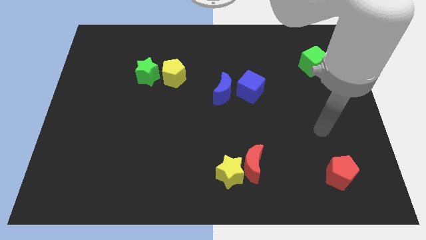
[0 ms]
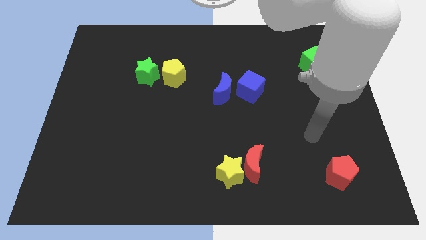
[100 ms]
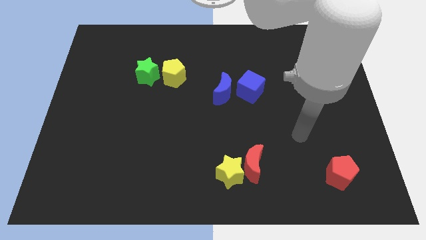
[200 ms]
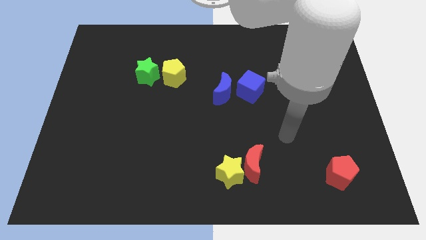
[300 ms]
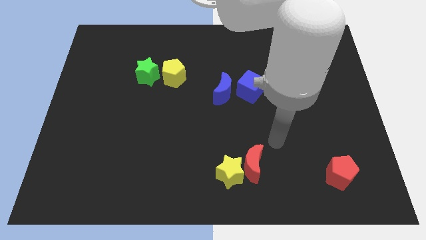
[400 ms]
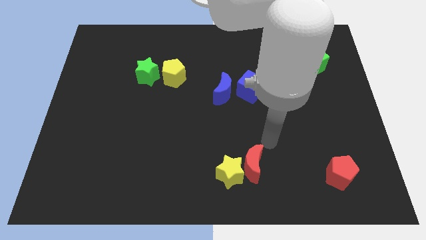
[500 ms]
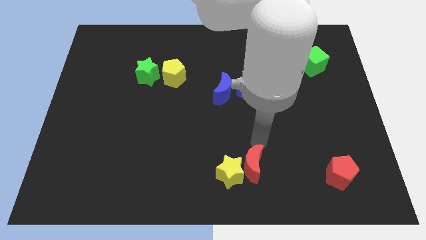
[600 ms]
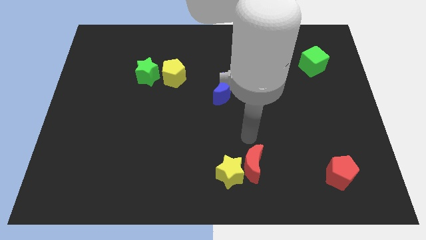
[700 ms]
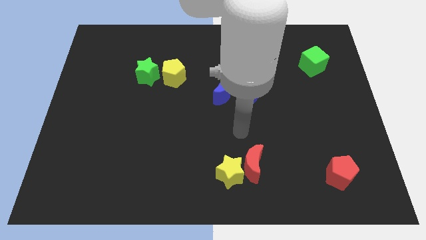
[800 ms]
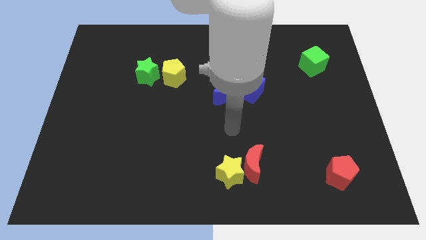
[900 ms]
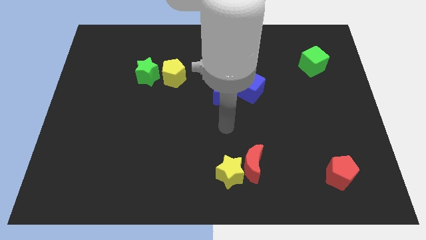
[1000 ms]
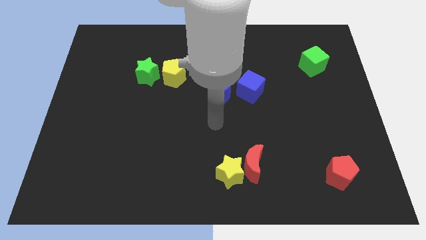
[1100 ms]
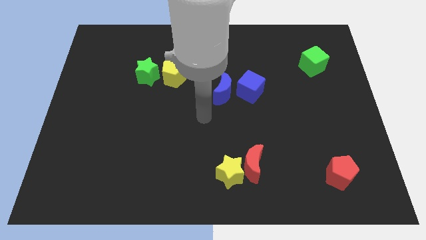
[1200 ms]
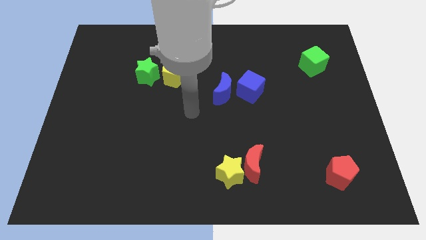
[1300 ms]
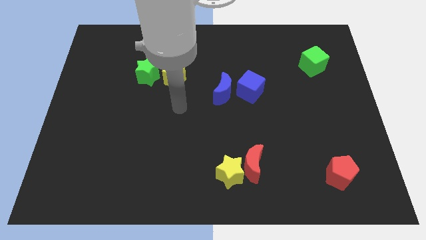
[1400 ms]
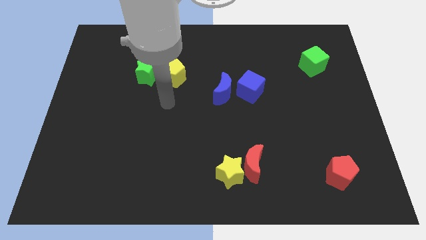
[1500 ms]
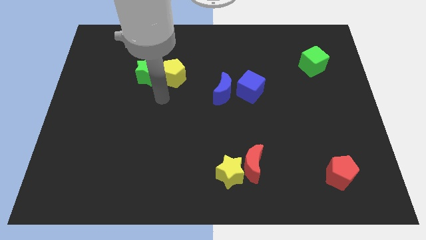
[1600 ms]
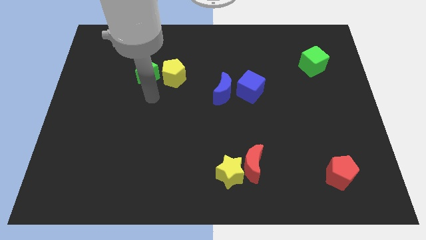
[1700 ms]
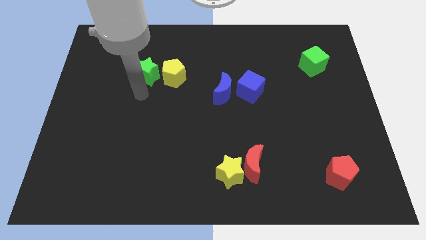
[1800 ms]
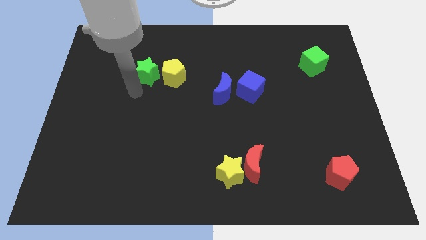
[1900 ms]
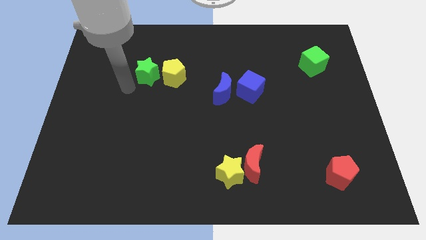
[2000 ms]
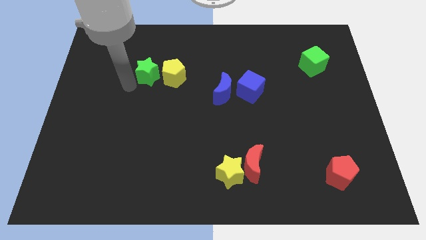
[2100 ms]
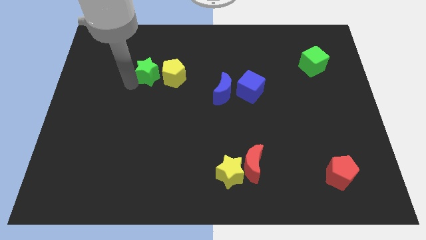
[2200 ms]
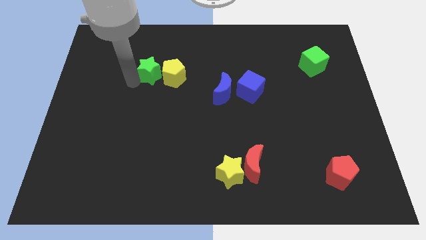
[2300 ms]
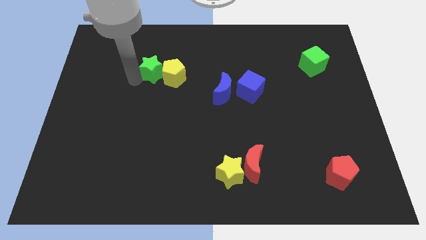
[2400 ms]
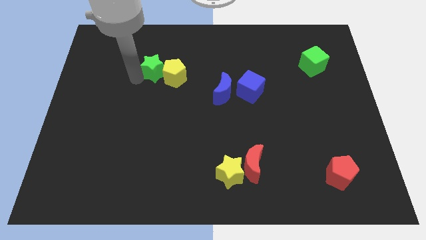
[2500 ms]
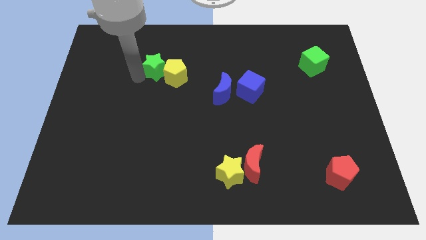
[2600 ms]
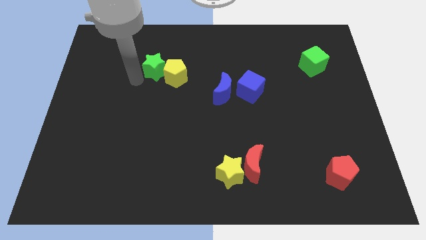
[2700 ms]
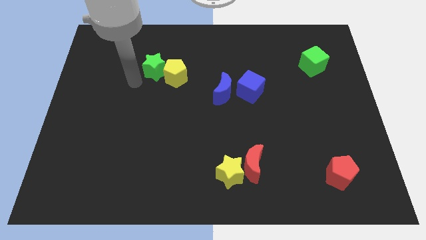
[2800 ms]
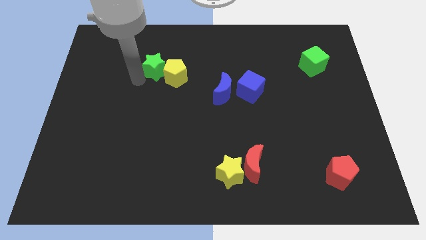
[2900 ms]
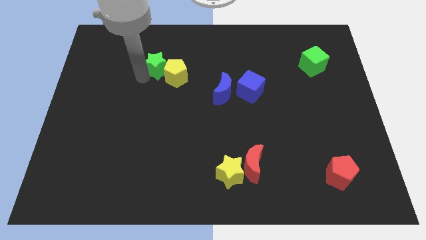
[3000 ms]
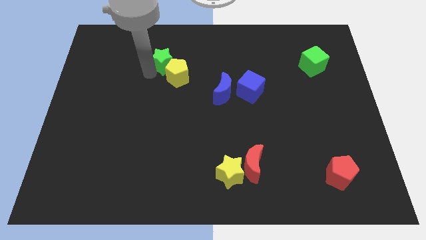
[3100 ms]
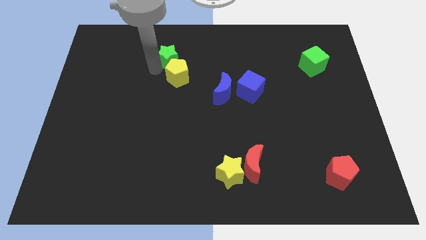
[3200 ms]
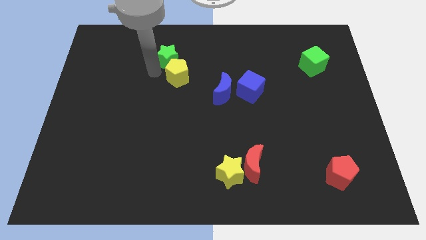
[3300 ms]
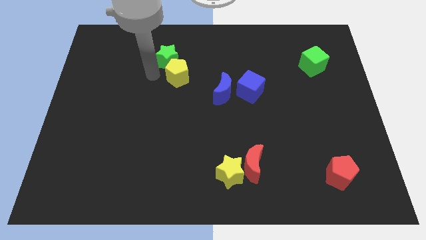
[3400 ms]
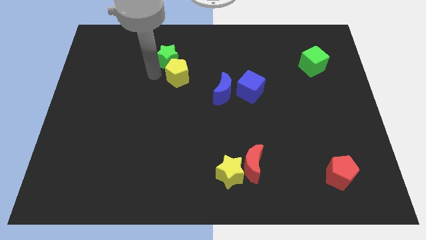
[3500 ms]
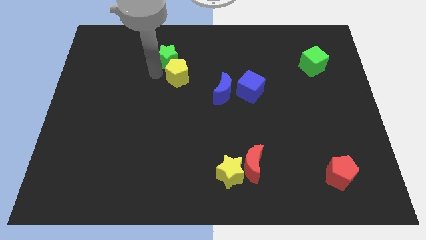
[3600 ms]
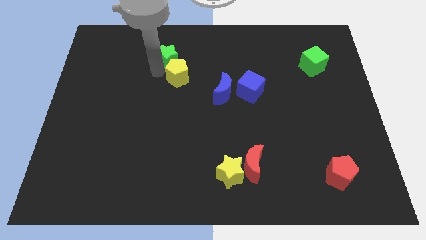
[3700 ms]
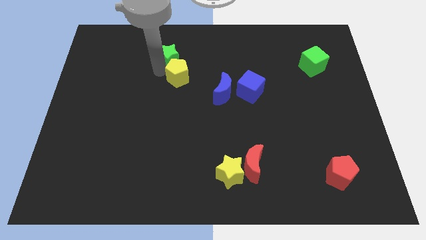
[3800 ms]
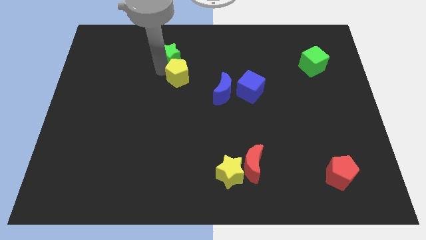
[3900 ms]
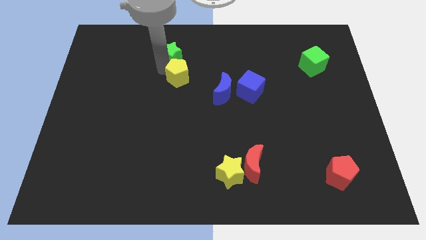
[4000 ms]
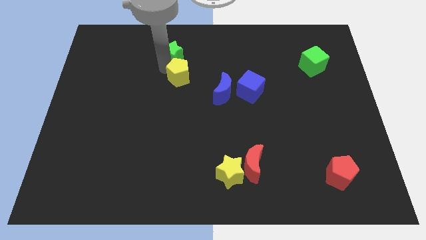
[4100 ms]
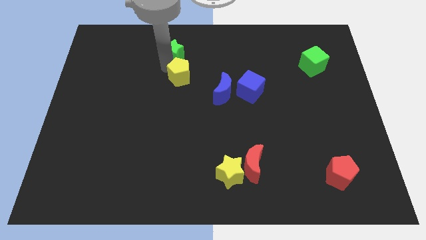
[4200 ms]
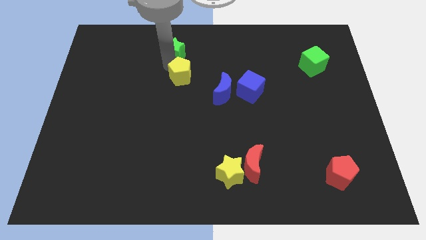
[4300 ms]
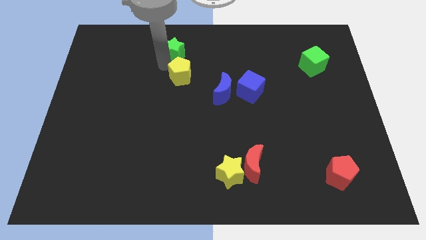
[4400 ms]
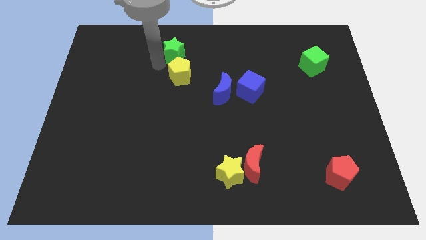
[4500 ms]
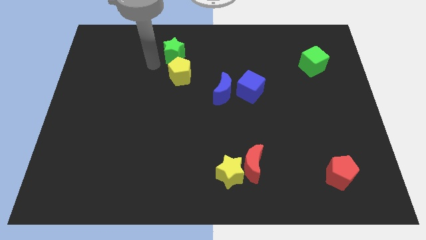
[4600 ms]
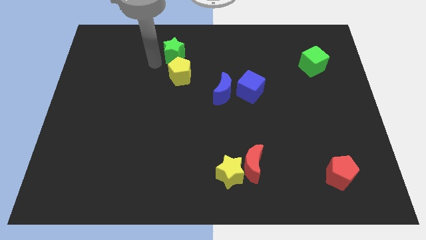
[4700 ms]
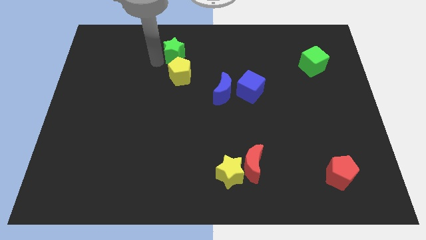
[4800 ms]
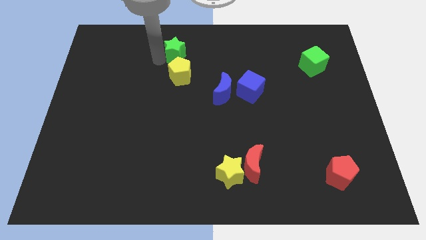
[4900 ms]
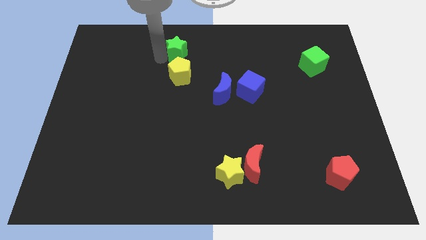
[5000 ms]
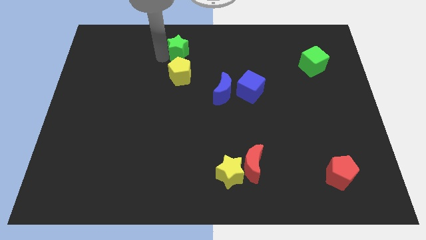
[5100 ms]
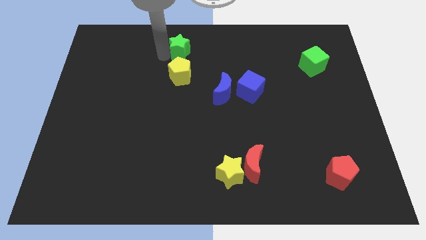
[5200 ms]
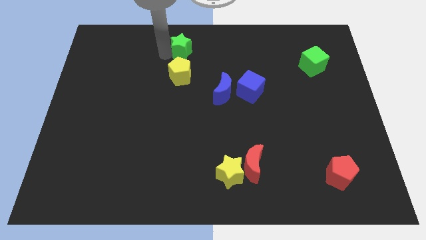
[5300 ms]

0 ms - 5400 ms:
push the green star to the towards your base

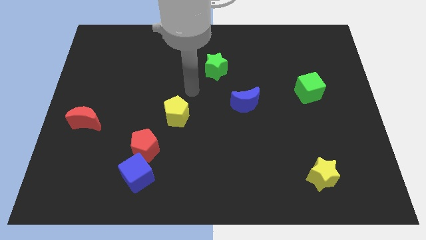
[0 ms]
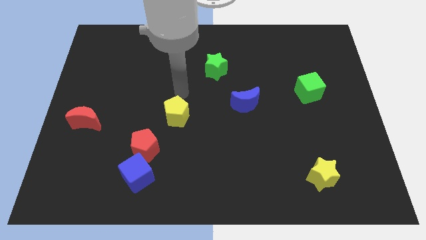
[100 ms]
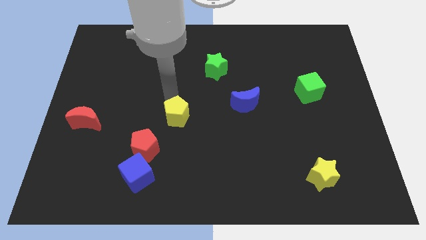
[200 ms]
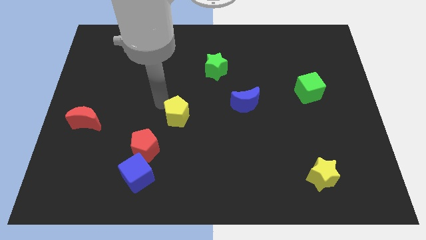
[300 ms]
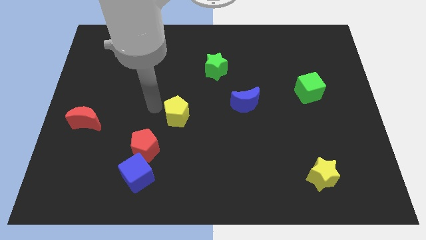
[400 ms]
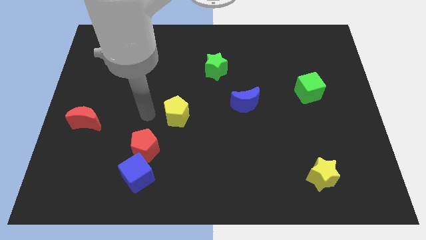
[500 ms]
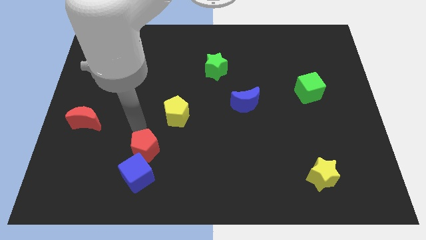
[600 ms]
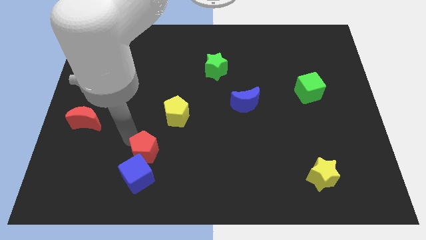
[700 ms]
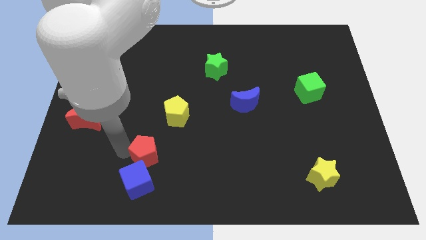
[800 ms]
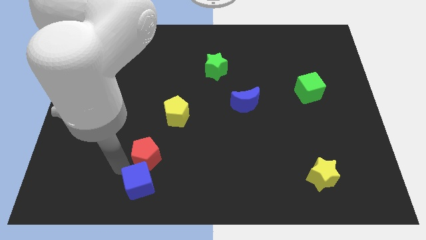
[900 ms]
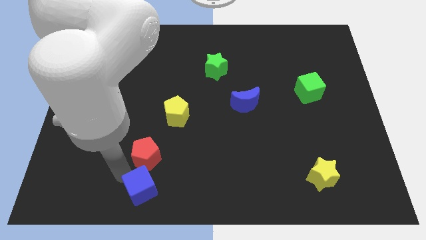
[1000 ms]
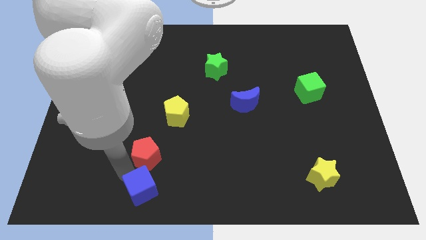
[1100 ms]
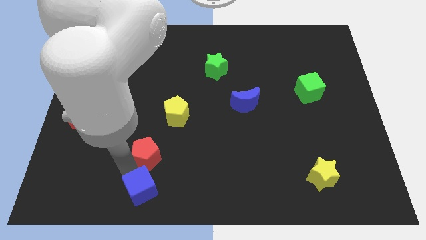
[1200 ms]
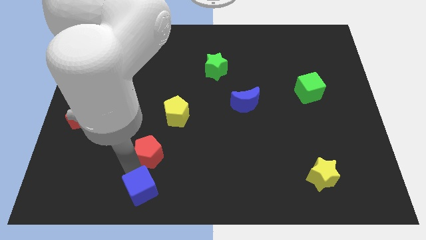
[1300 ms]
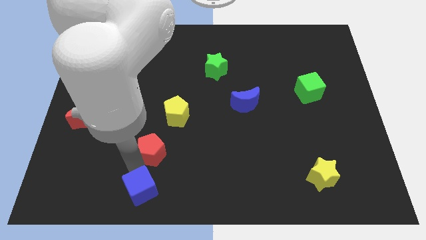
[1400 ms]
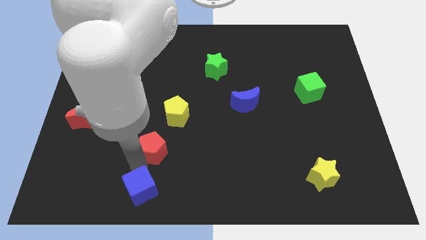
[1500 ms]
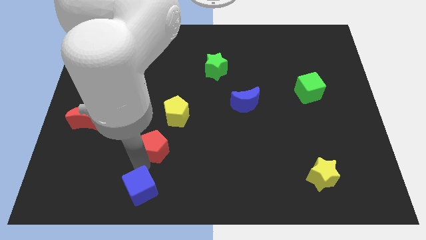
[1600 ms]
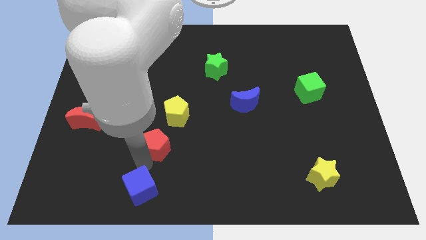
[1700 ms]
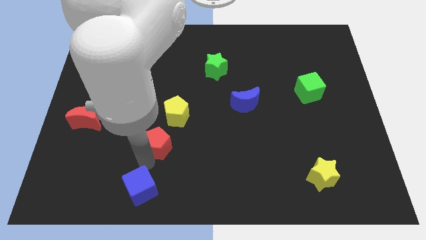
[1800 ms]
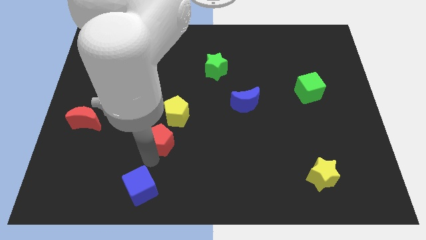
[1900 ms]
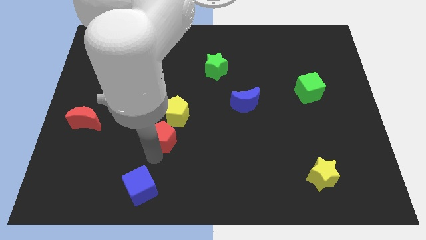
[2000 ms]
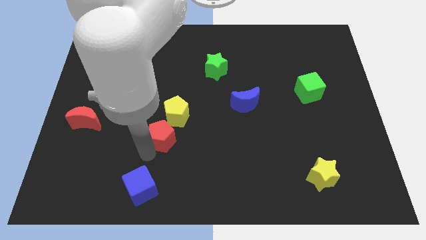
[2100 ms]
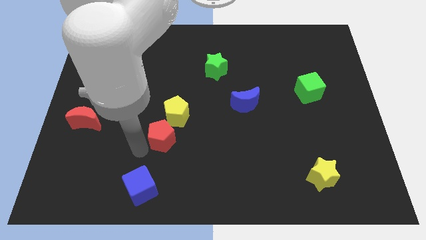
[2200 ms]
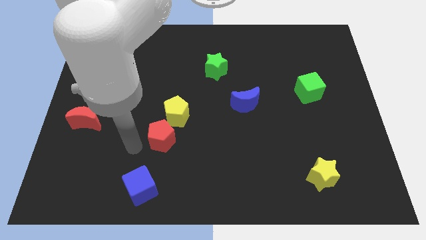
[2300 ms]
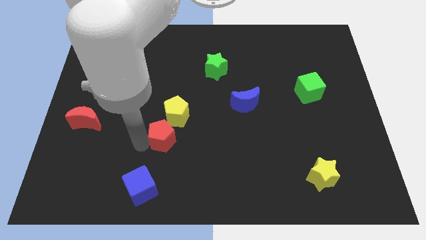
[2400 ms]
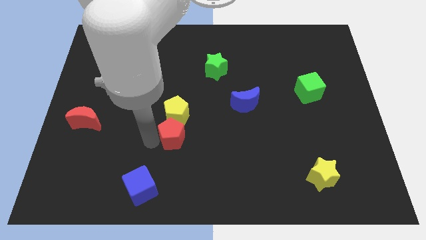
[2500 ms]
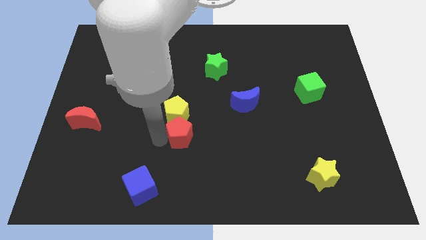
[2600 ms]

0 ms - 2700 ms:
put the red pentagon to the center of the board

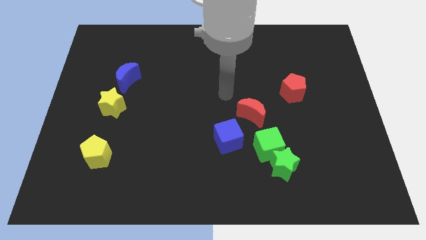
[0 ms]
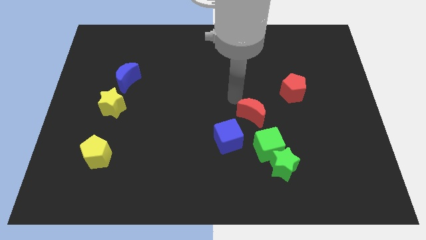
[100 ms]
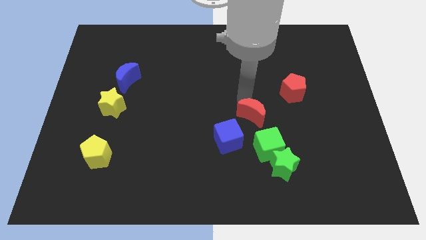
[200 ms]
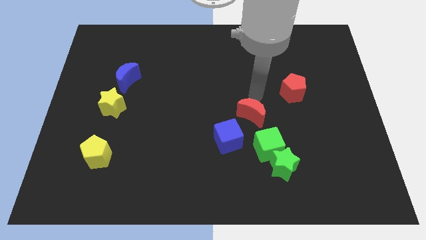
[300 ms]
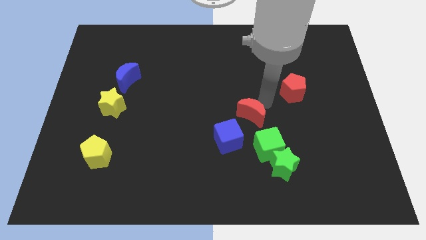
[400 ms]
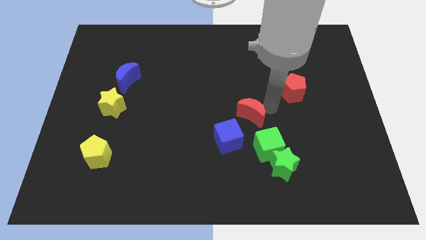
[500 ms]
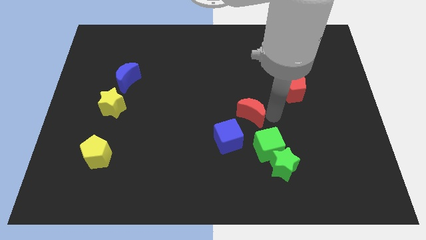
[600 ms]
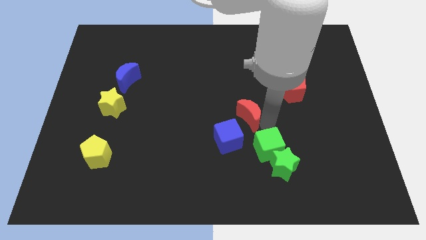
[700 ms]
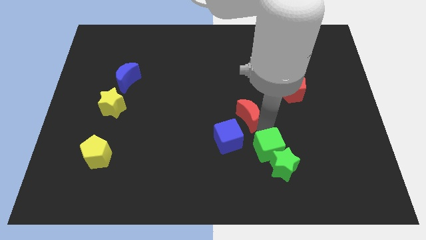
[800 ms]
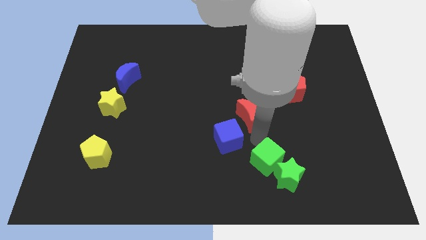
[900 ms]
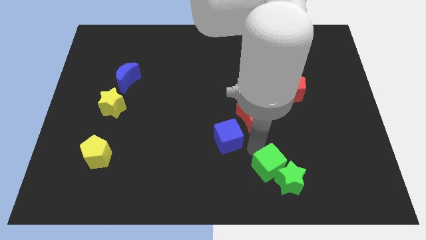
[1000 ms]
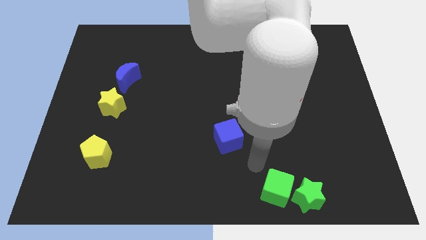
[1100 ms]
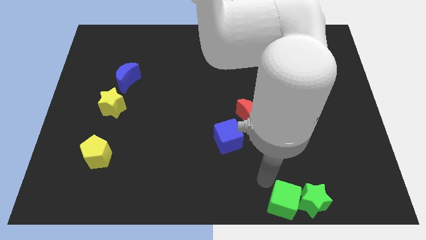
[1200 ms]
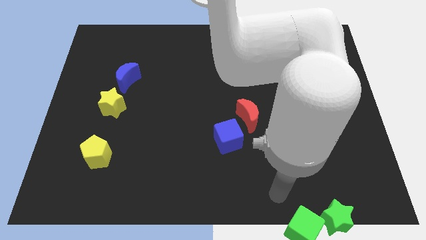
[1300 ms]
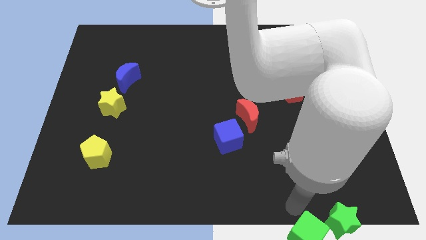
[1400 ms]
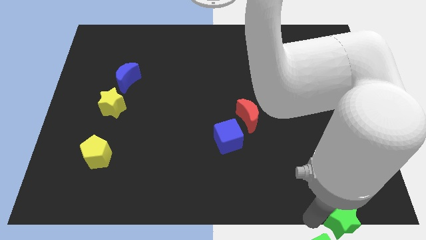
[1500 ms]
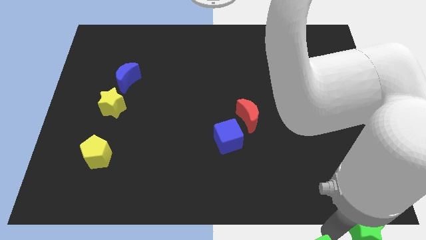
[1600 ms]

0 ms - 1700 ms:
move the green star to the bottom right of the board
